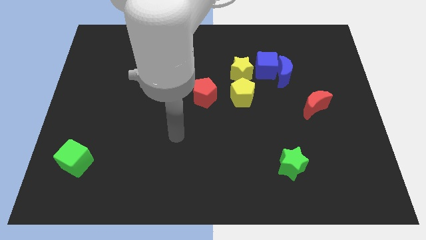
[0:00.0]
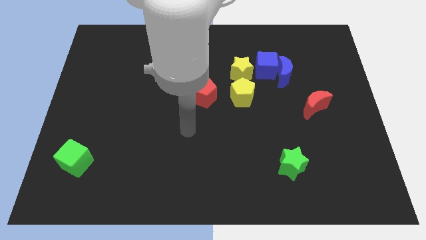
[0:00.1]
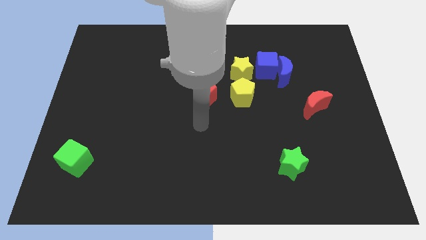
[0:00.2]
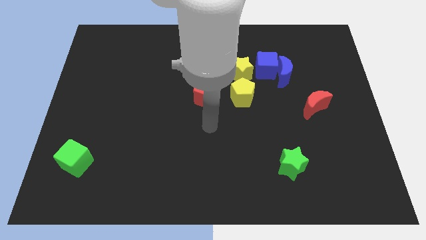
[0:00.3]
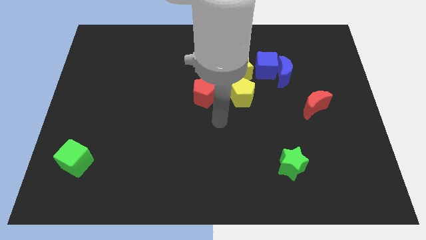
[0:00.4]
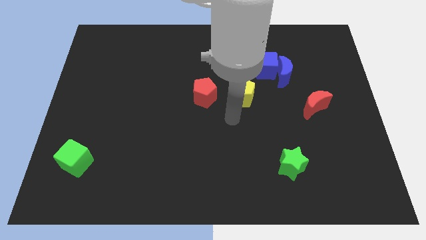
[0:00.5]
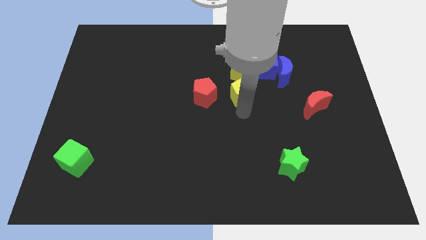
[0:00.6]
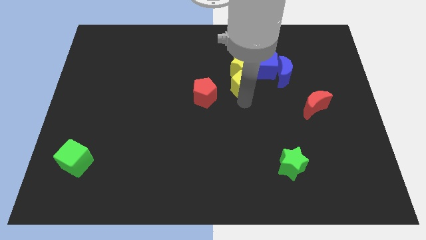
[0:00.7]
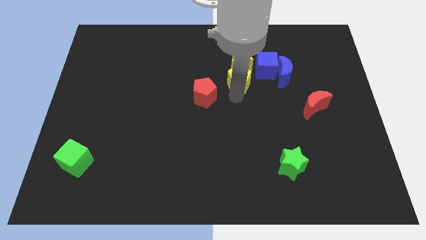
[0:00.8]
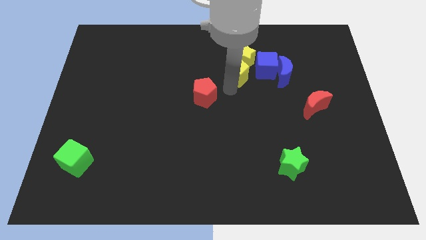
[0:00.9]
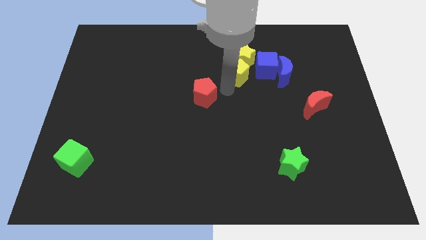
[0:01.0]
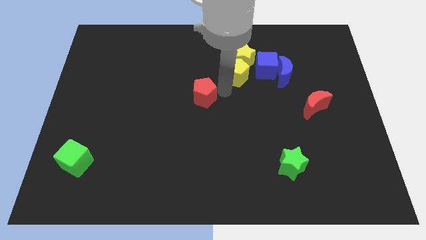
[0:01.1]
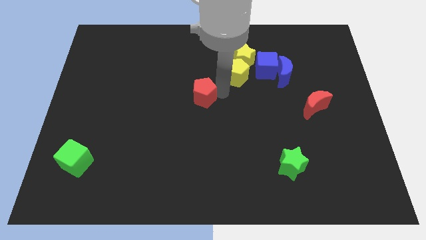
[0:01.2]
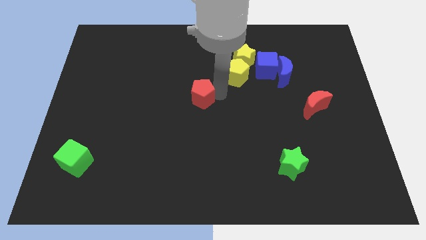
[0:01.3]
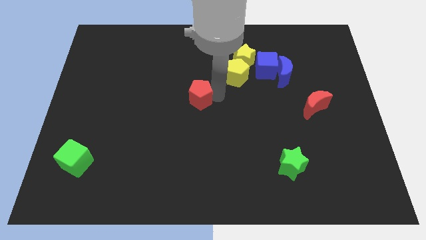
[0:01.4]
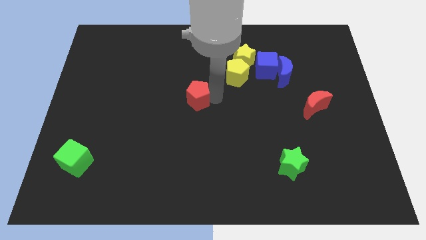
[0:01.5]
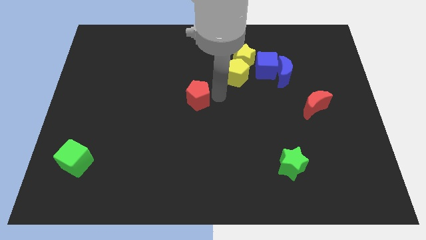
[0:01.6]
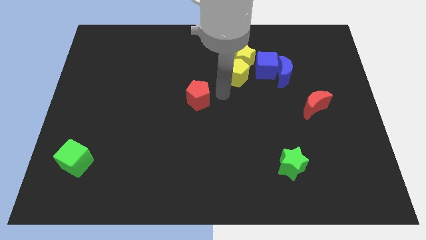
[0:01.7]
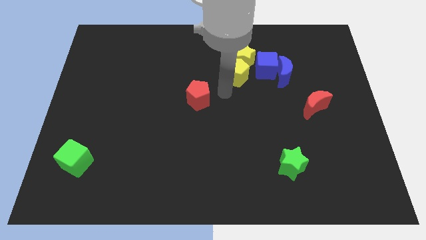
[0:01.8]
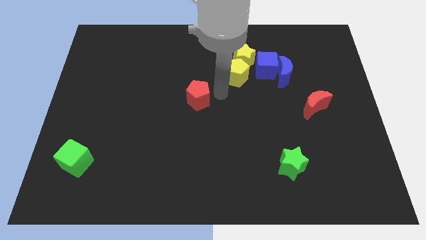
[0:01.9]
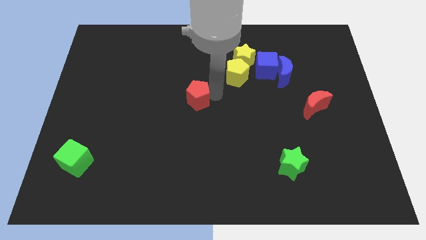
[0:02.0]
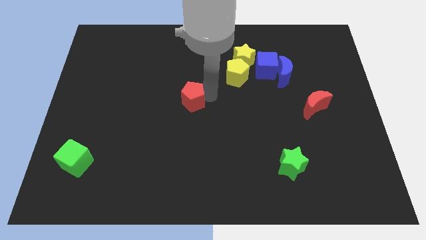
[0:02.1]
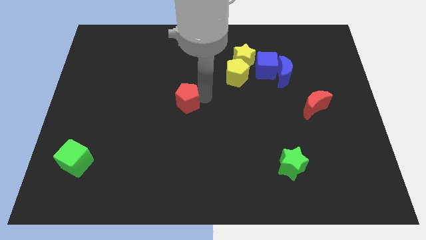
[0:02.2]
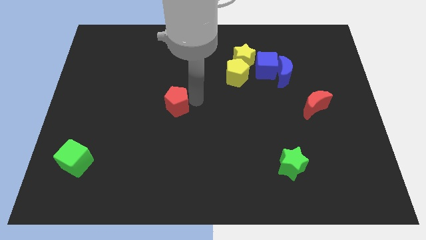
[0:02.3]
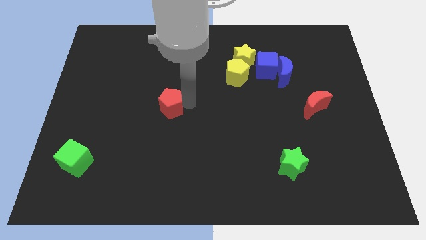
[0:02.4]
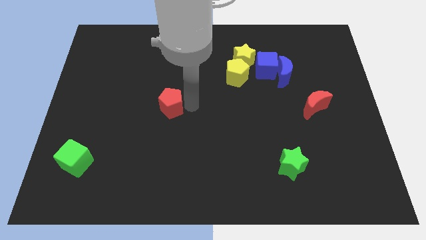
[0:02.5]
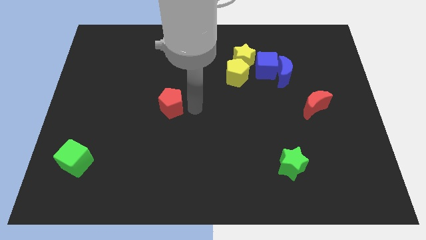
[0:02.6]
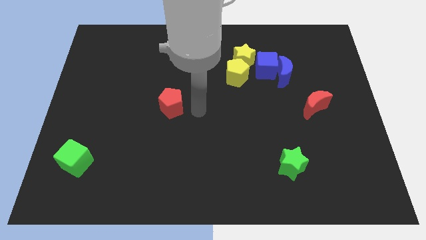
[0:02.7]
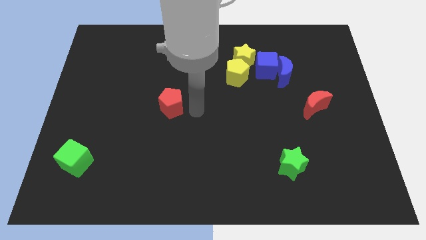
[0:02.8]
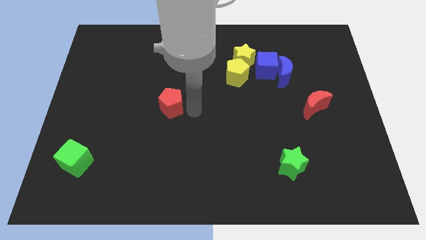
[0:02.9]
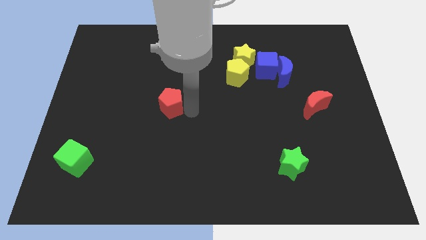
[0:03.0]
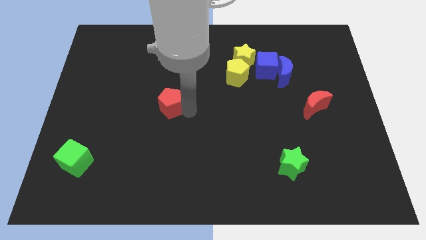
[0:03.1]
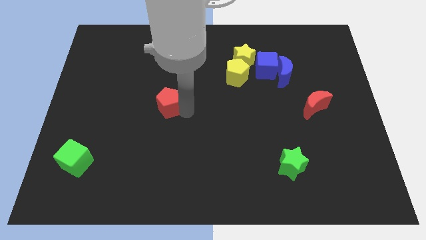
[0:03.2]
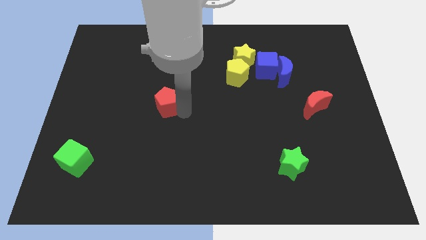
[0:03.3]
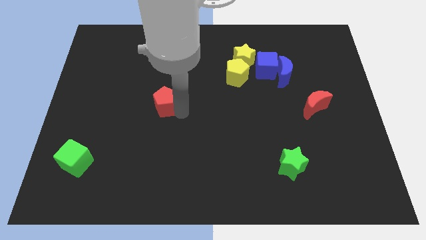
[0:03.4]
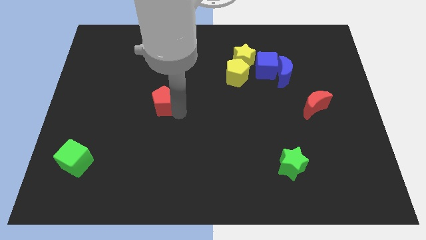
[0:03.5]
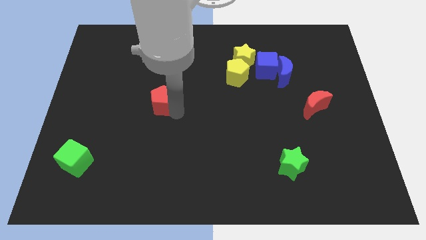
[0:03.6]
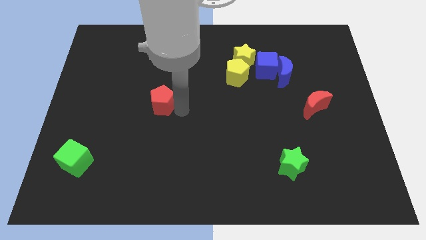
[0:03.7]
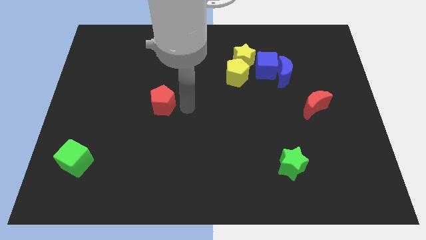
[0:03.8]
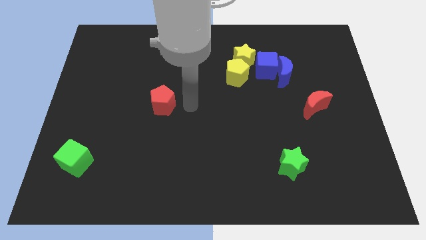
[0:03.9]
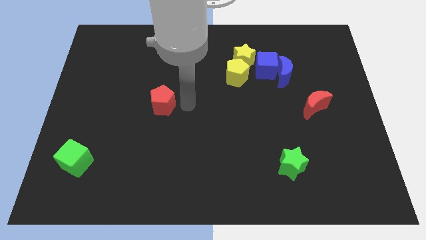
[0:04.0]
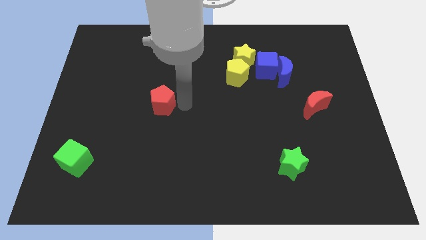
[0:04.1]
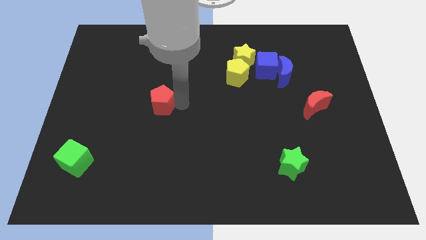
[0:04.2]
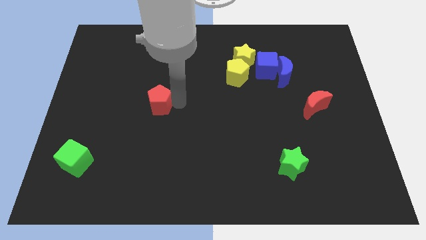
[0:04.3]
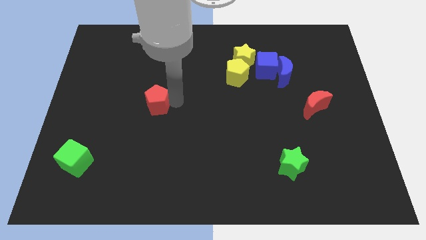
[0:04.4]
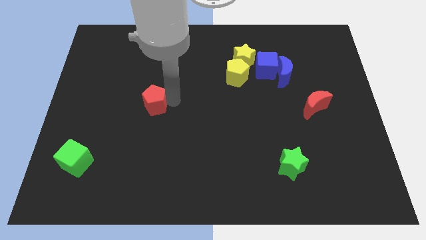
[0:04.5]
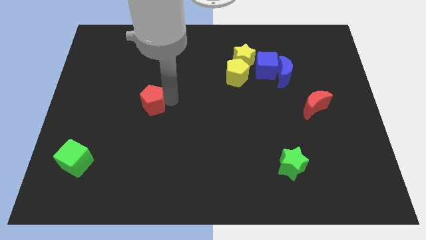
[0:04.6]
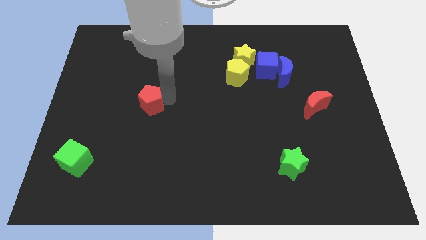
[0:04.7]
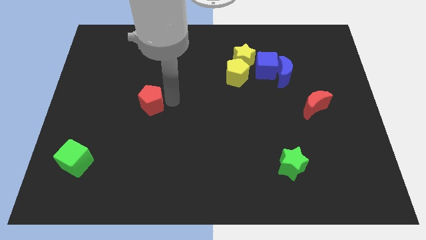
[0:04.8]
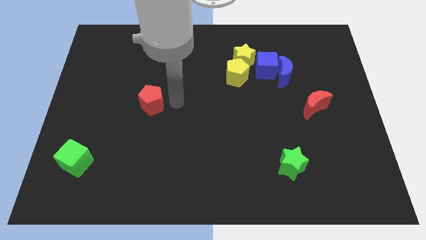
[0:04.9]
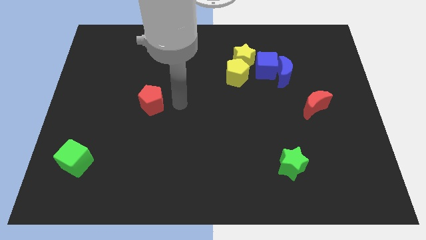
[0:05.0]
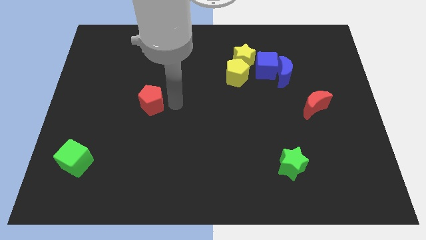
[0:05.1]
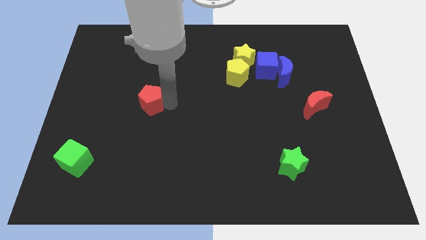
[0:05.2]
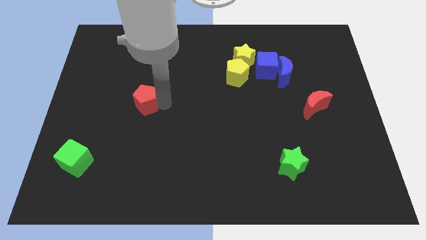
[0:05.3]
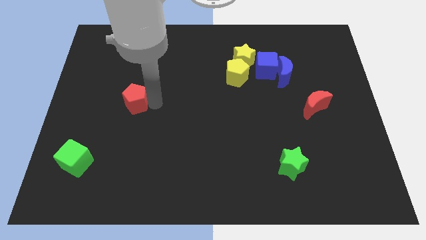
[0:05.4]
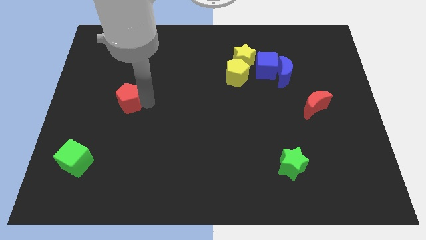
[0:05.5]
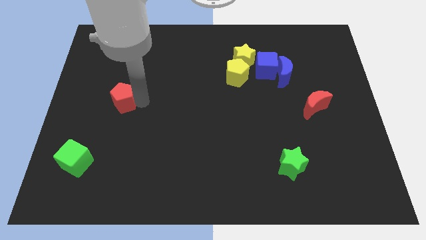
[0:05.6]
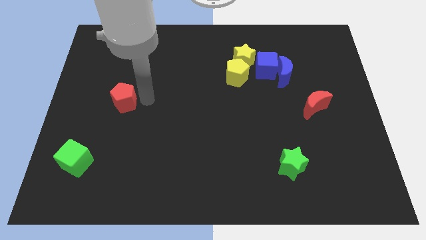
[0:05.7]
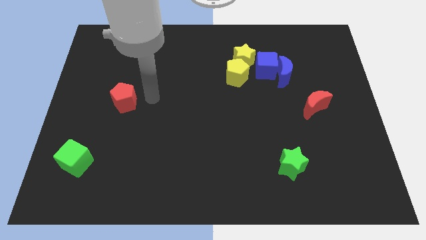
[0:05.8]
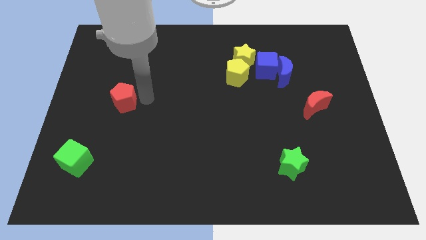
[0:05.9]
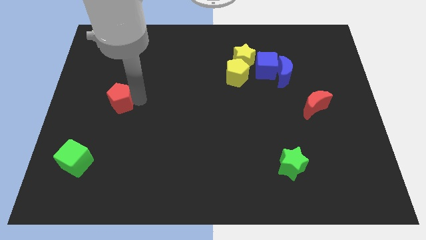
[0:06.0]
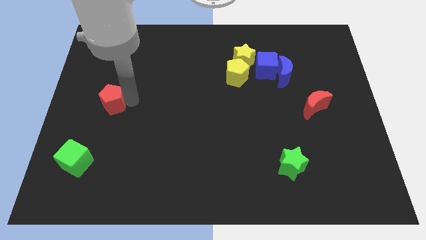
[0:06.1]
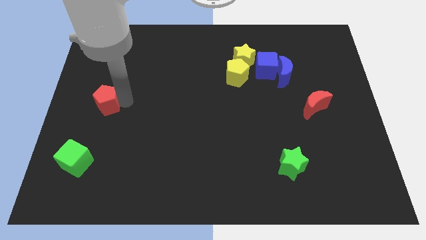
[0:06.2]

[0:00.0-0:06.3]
move the red pentagon to the center left

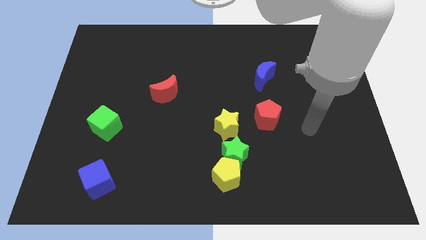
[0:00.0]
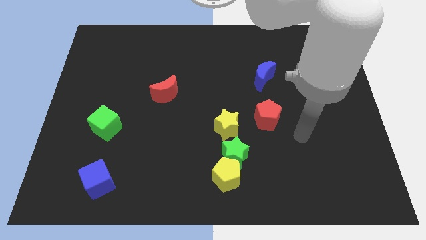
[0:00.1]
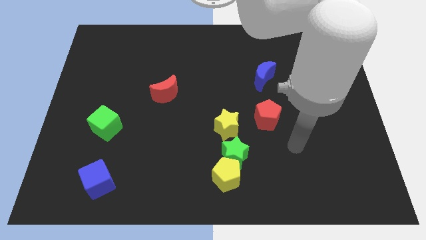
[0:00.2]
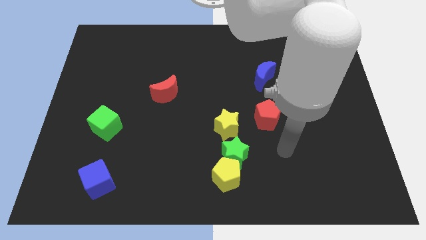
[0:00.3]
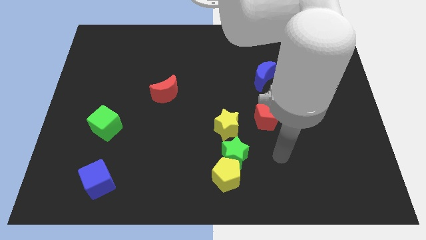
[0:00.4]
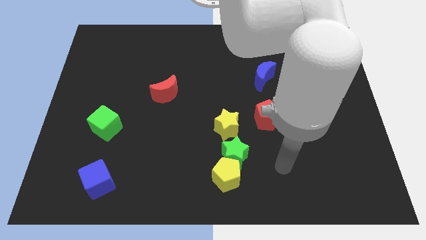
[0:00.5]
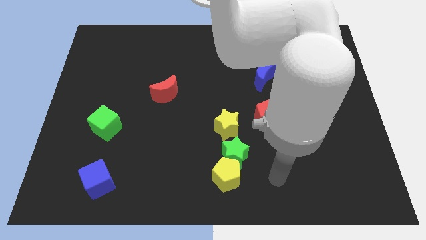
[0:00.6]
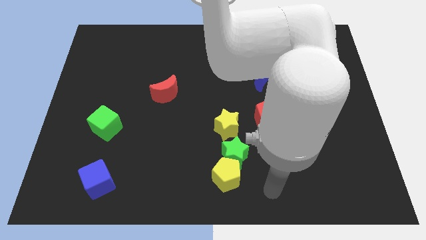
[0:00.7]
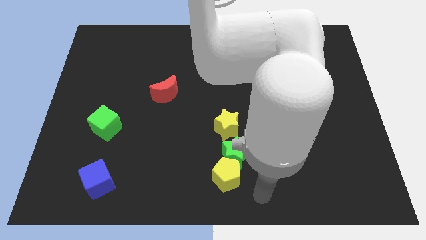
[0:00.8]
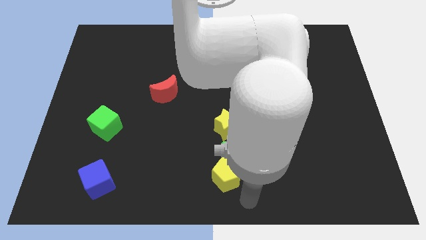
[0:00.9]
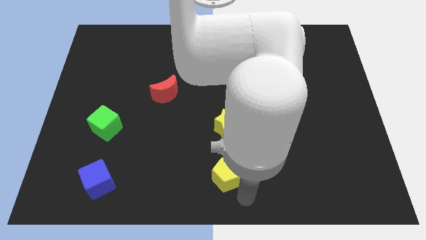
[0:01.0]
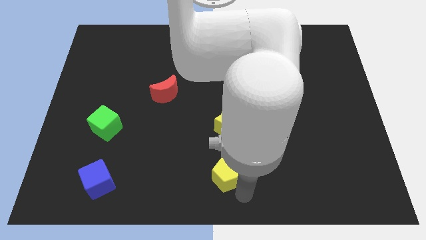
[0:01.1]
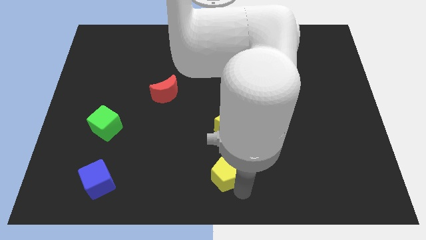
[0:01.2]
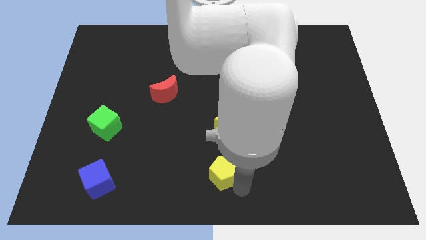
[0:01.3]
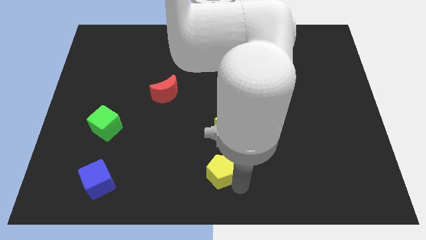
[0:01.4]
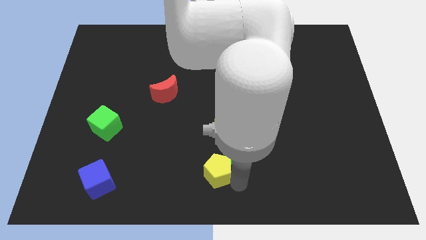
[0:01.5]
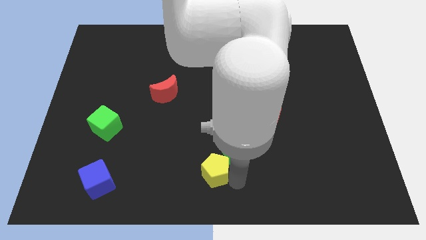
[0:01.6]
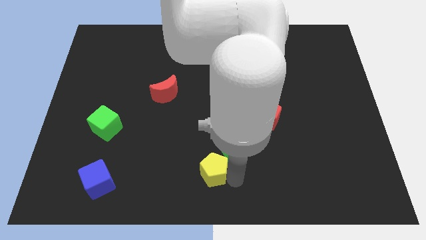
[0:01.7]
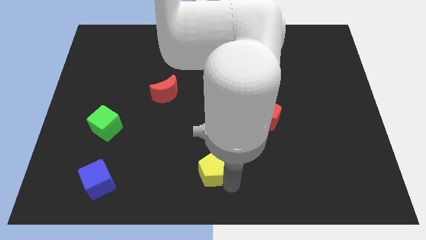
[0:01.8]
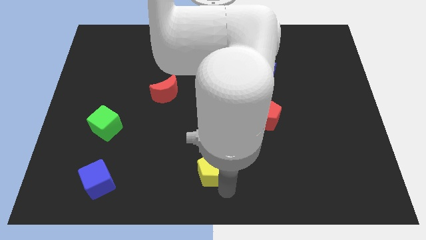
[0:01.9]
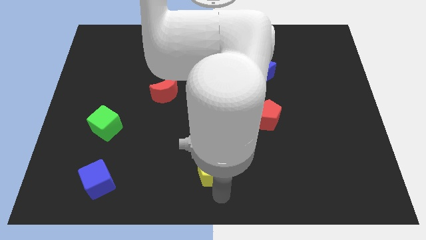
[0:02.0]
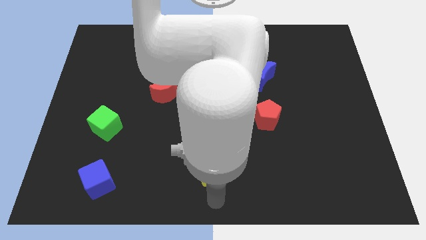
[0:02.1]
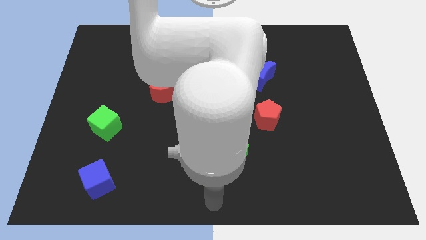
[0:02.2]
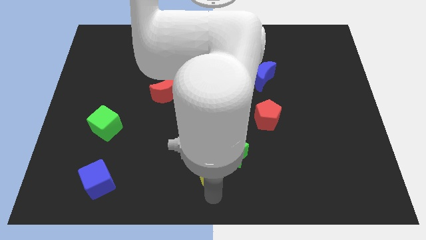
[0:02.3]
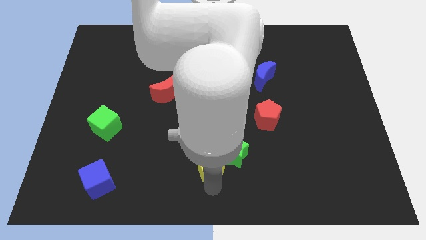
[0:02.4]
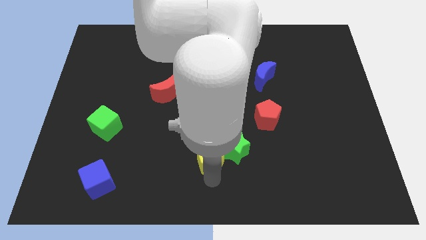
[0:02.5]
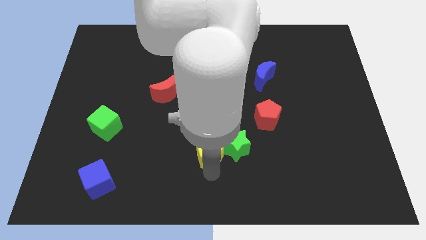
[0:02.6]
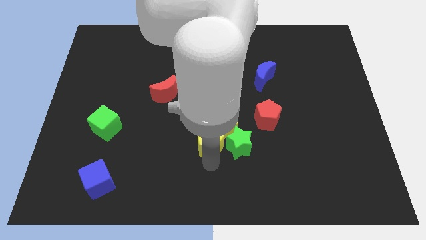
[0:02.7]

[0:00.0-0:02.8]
push the yellow pentagon to the center of the board
